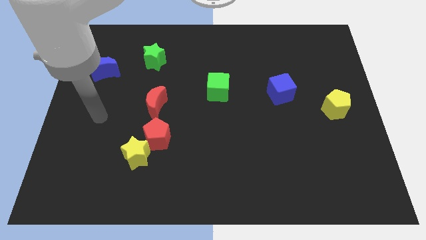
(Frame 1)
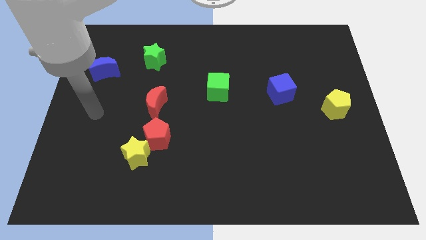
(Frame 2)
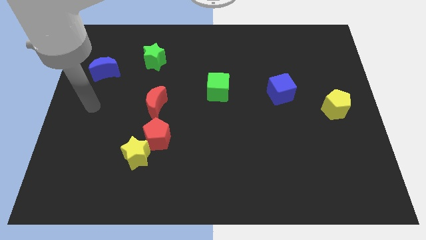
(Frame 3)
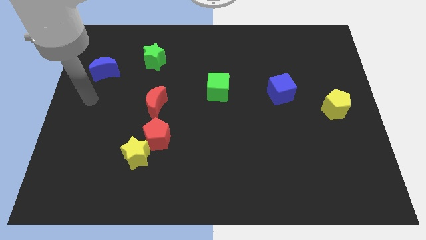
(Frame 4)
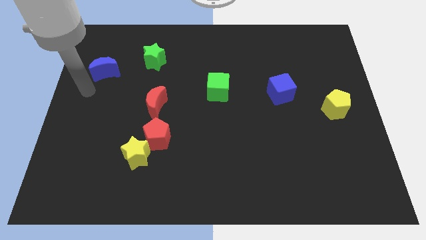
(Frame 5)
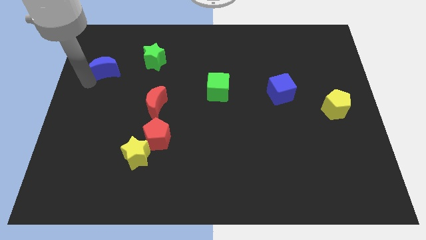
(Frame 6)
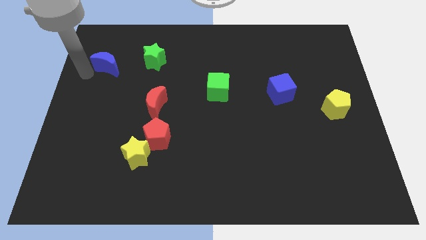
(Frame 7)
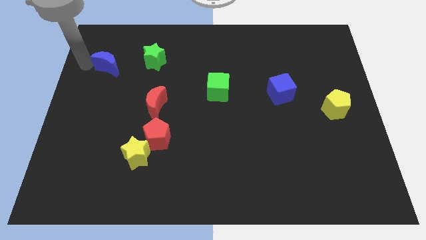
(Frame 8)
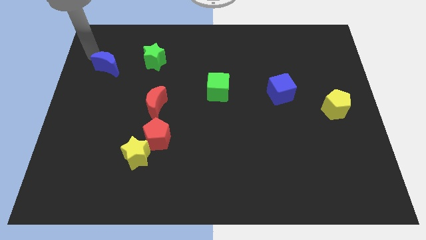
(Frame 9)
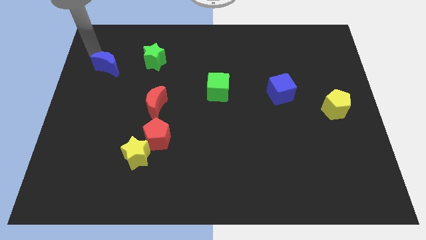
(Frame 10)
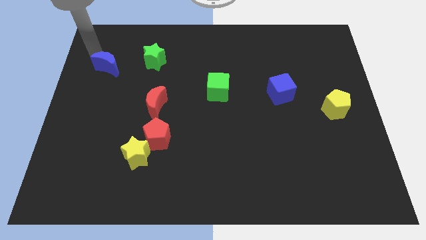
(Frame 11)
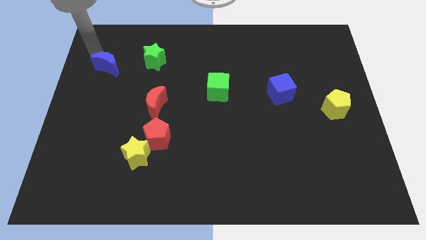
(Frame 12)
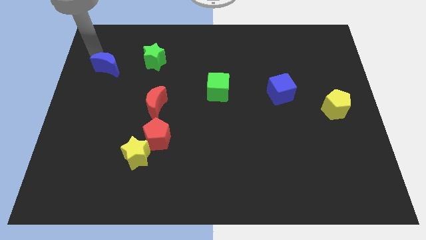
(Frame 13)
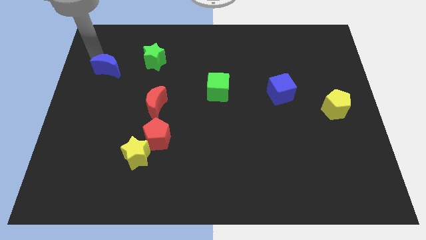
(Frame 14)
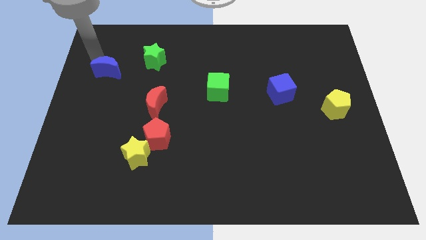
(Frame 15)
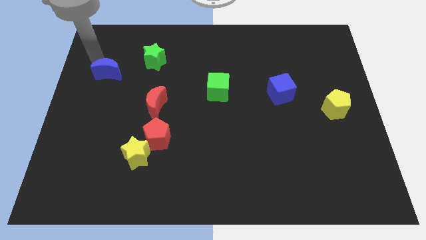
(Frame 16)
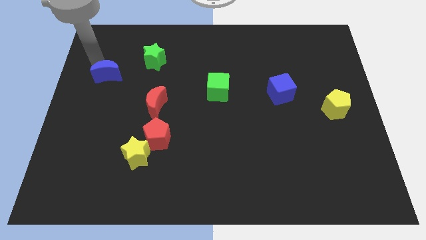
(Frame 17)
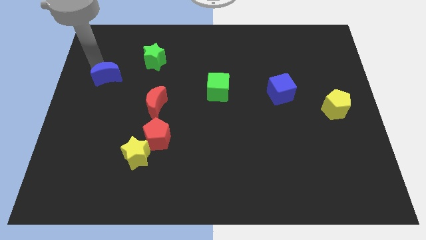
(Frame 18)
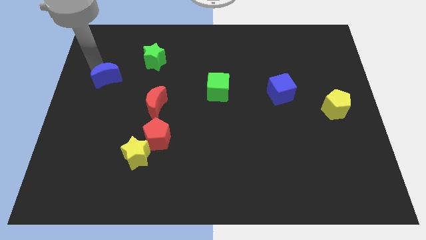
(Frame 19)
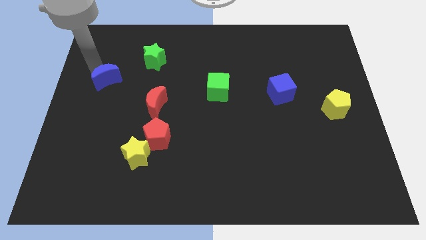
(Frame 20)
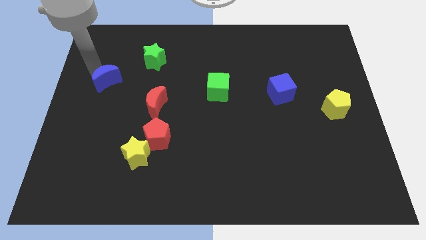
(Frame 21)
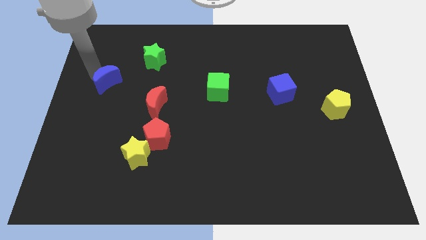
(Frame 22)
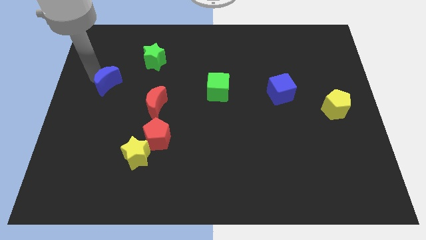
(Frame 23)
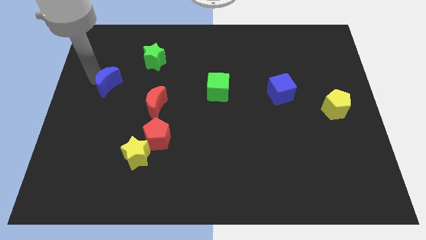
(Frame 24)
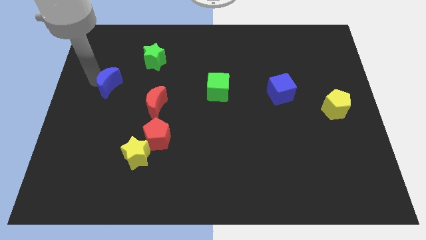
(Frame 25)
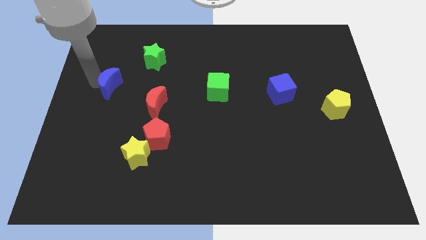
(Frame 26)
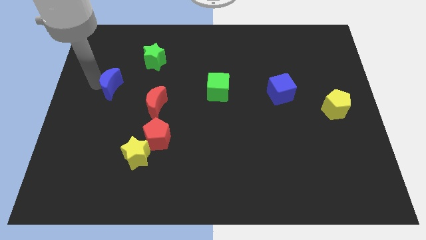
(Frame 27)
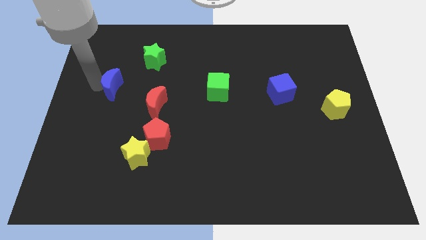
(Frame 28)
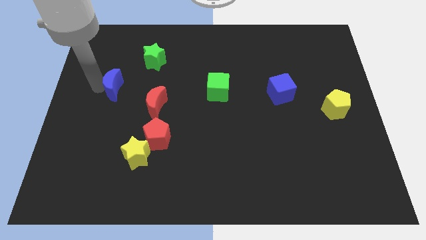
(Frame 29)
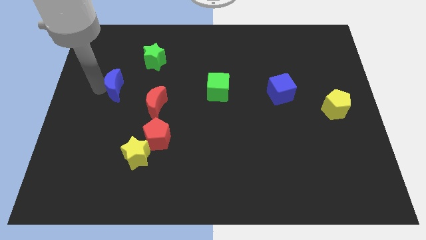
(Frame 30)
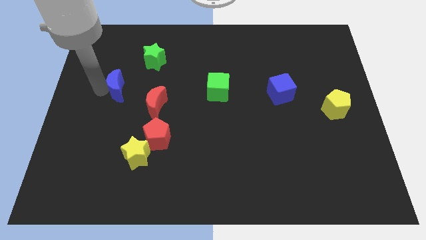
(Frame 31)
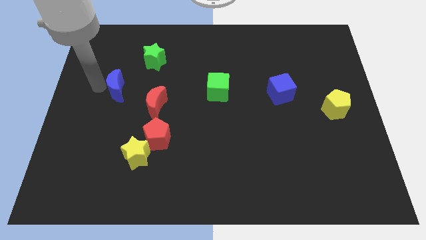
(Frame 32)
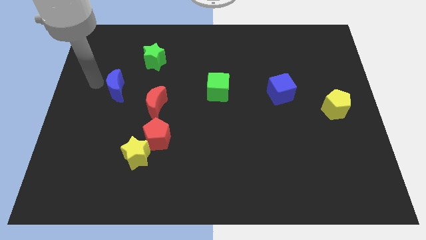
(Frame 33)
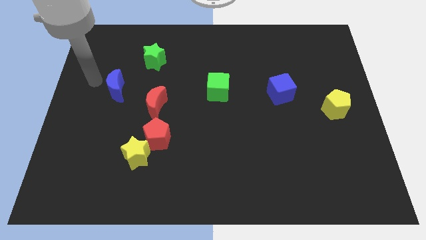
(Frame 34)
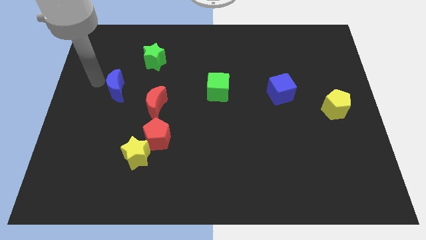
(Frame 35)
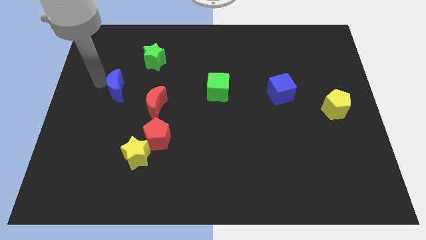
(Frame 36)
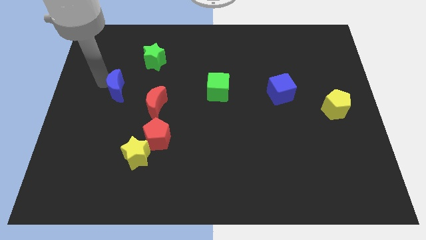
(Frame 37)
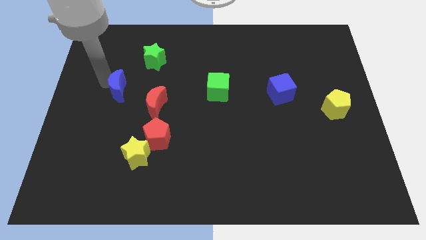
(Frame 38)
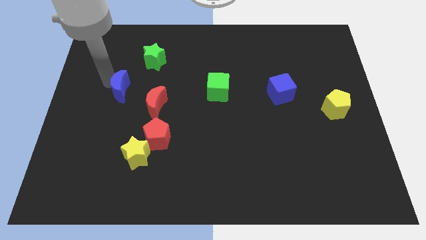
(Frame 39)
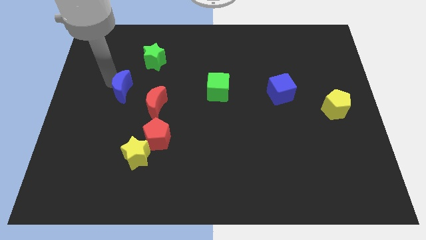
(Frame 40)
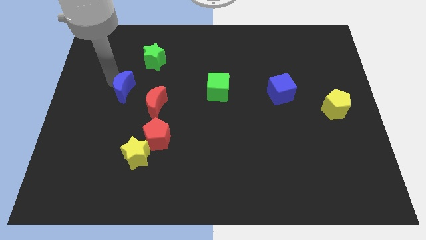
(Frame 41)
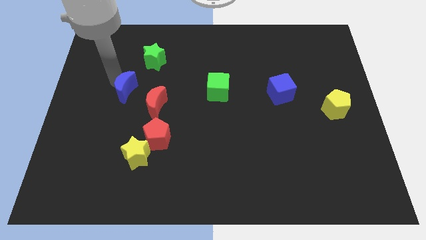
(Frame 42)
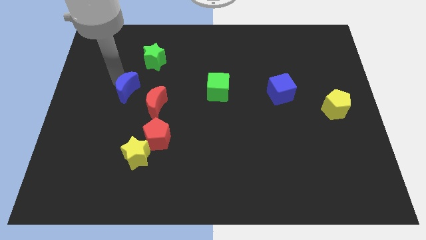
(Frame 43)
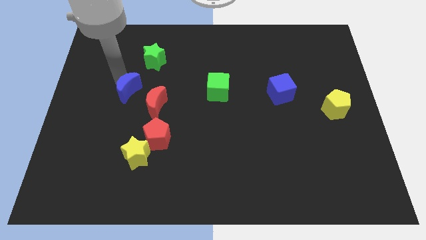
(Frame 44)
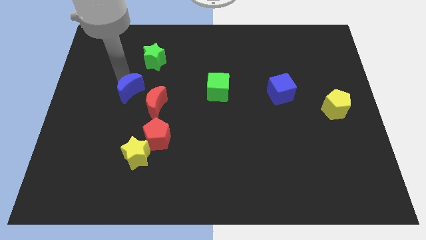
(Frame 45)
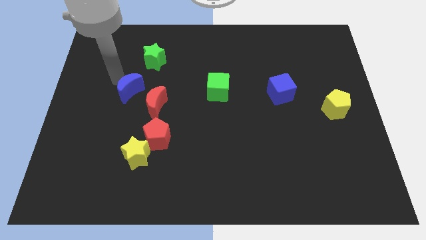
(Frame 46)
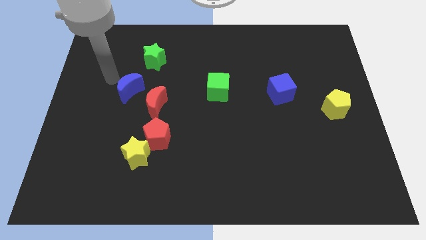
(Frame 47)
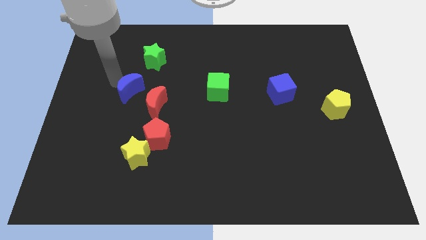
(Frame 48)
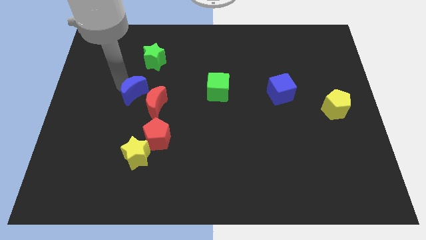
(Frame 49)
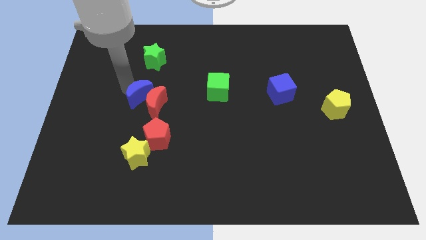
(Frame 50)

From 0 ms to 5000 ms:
put the blue moon towards the red moon

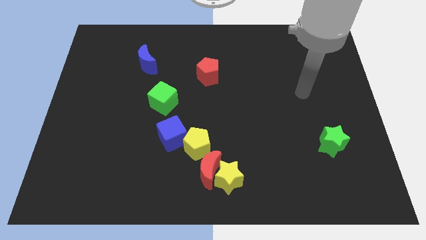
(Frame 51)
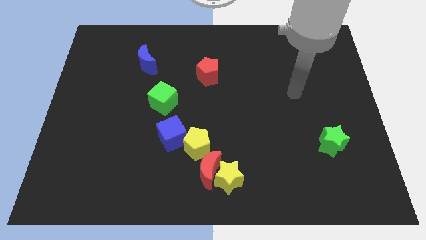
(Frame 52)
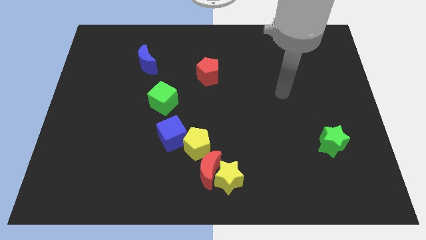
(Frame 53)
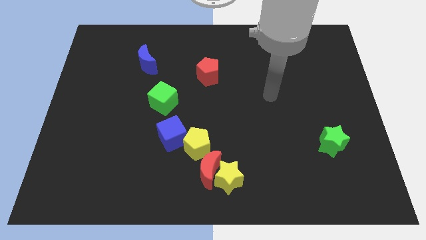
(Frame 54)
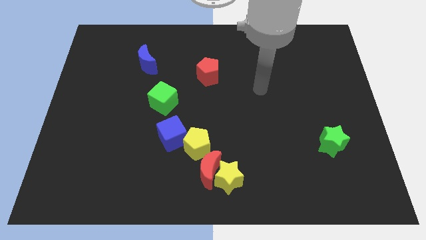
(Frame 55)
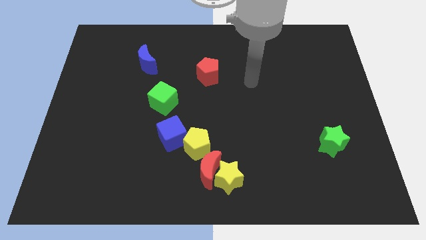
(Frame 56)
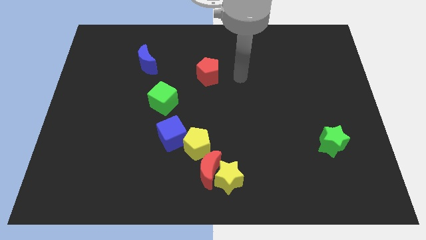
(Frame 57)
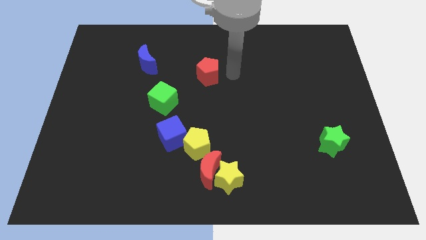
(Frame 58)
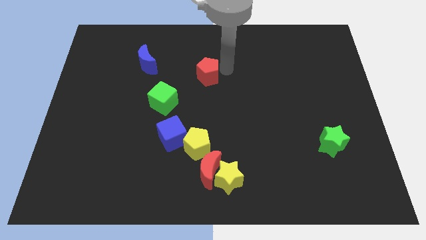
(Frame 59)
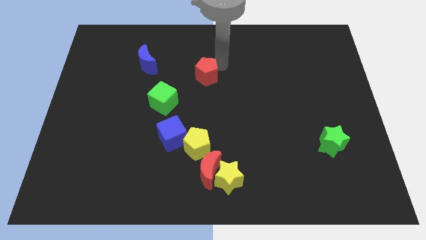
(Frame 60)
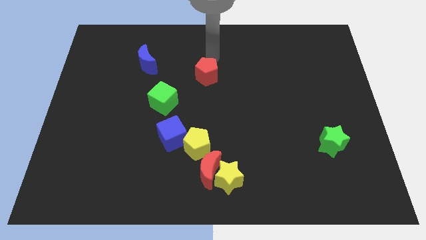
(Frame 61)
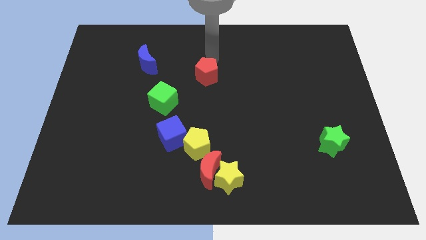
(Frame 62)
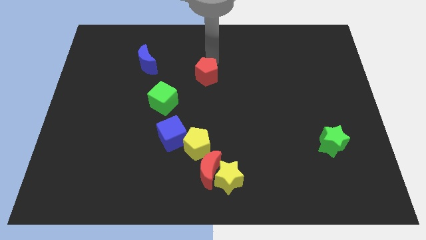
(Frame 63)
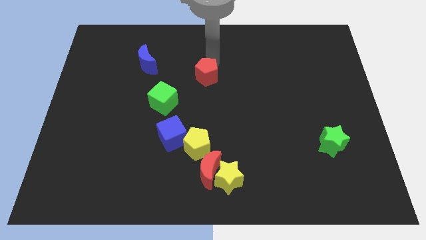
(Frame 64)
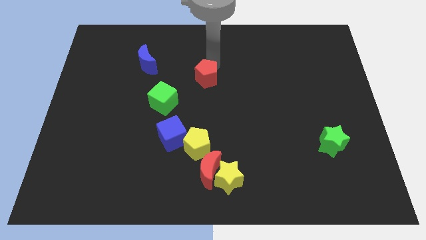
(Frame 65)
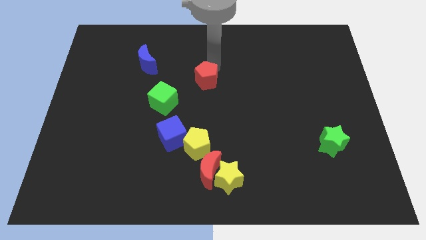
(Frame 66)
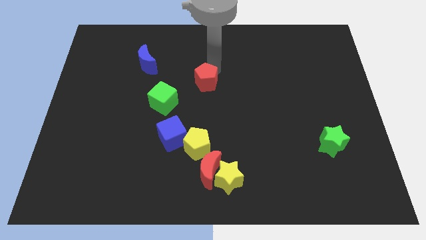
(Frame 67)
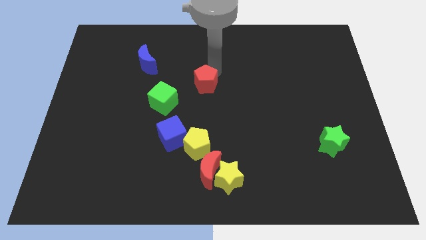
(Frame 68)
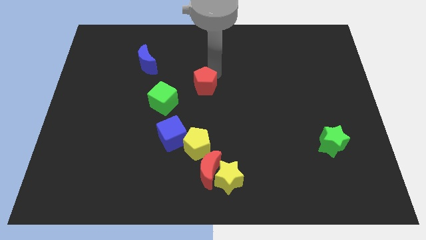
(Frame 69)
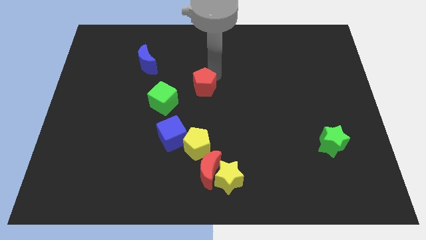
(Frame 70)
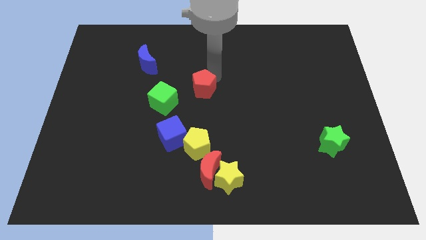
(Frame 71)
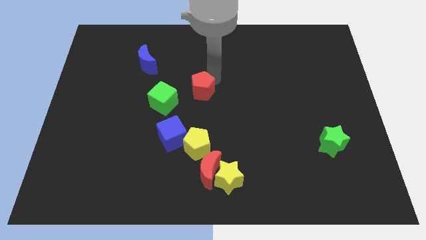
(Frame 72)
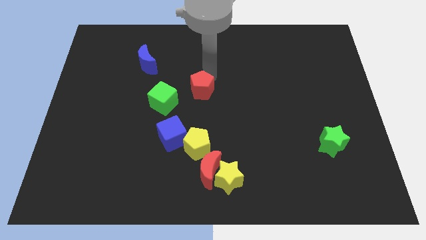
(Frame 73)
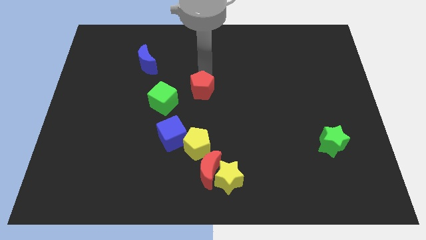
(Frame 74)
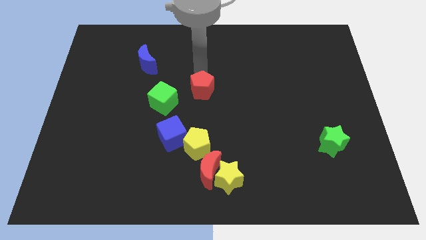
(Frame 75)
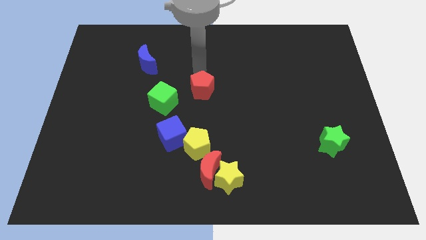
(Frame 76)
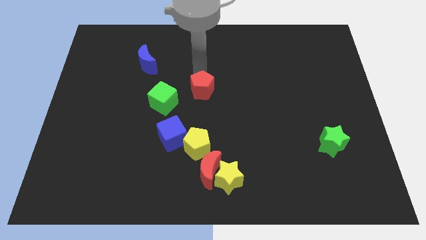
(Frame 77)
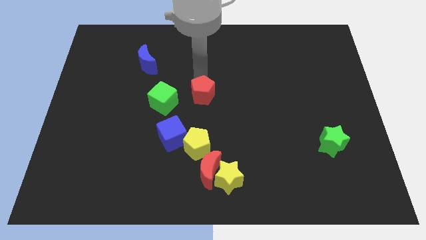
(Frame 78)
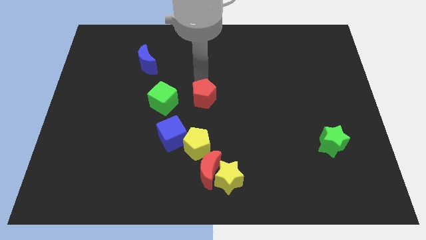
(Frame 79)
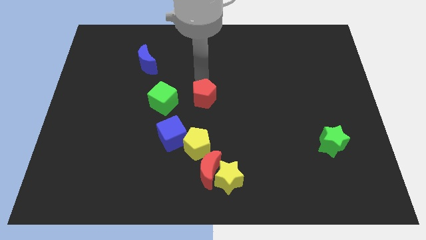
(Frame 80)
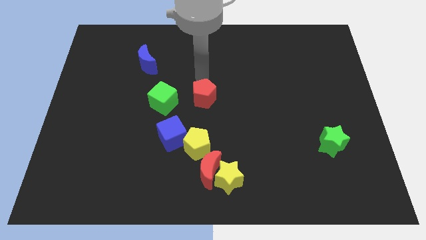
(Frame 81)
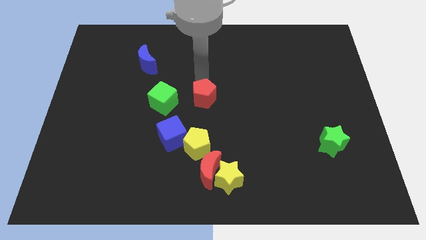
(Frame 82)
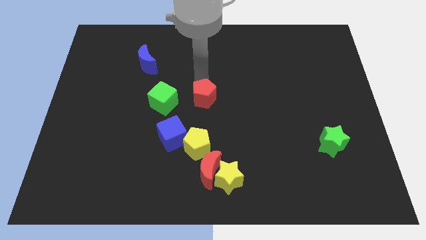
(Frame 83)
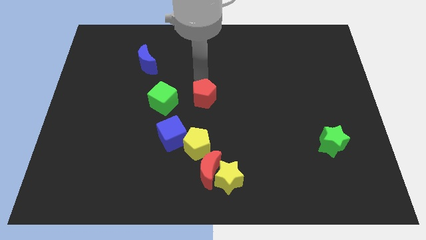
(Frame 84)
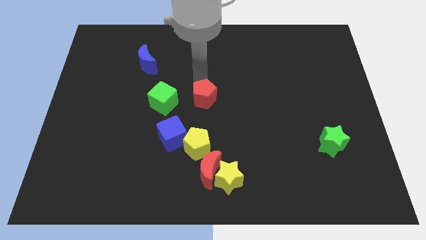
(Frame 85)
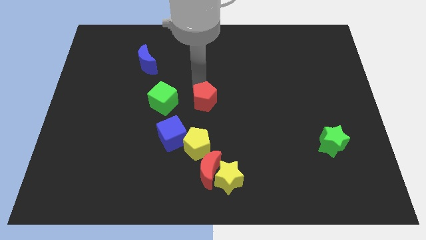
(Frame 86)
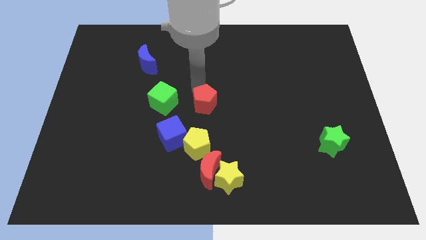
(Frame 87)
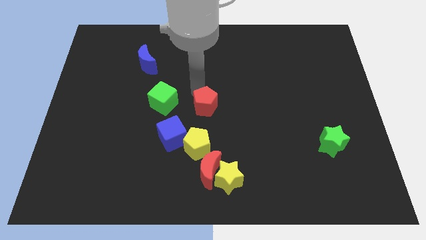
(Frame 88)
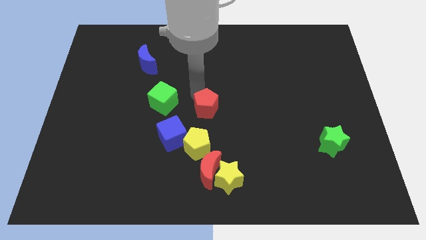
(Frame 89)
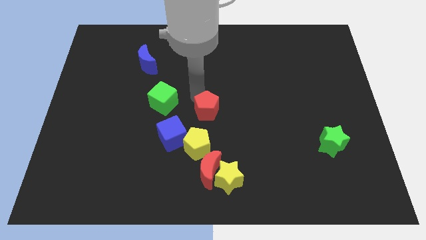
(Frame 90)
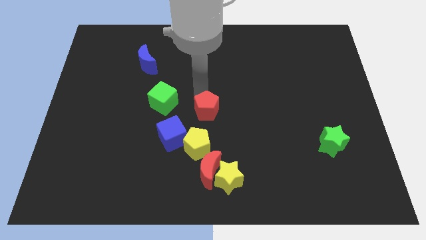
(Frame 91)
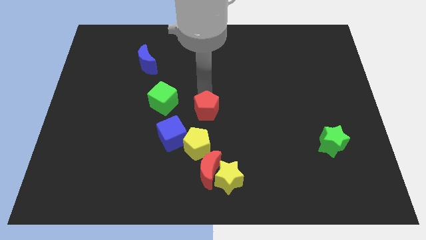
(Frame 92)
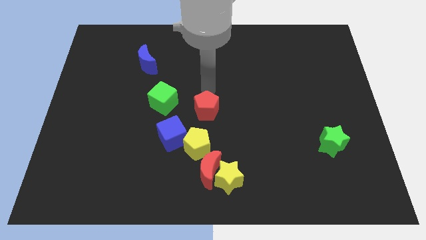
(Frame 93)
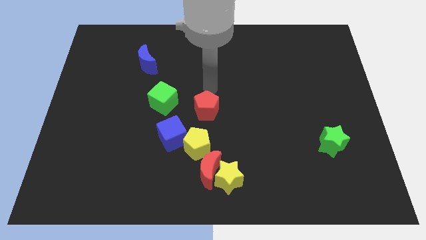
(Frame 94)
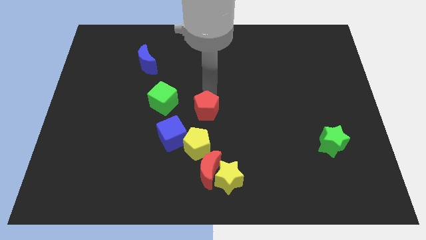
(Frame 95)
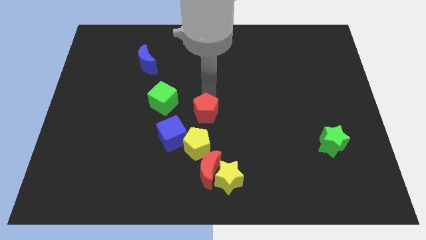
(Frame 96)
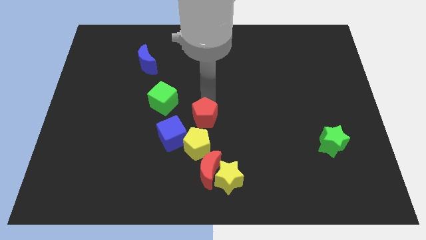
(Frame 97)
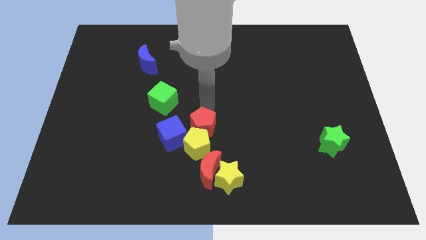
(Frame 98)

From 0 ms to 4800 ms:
push the red pentagon towards the yellow pentagon
